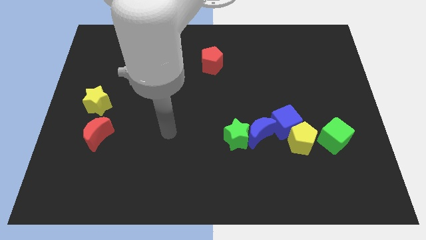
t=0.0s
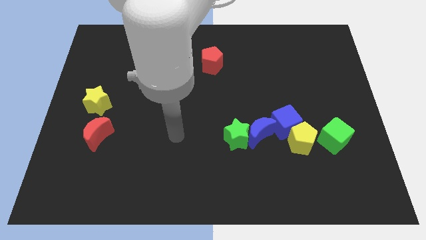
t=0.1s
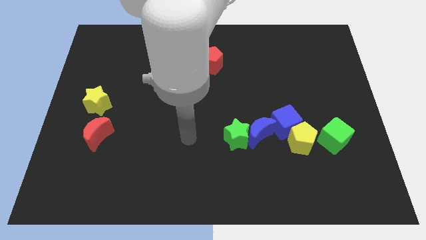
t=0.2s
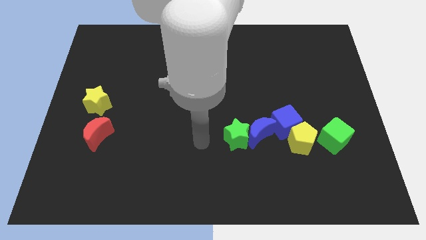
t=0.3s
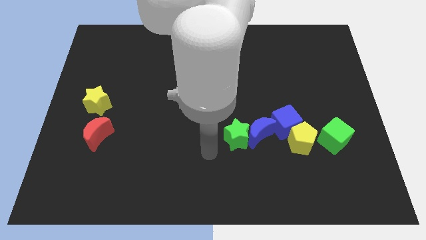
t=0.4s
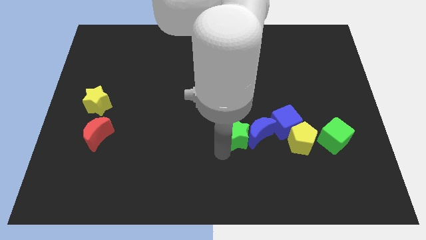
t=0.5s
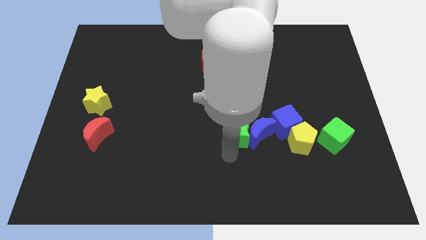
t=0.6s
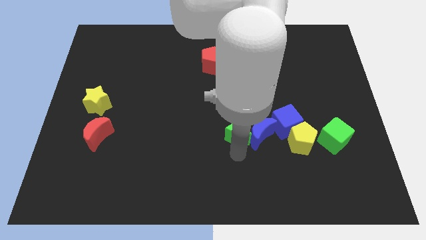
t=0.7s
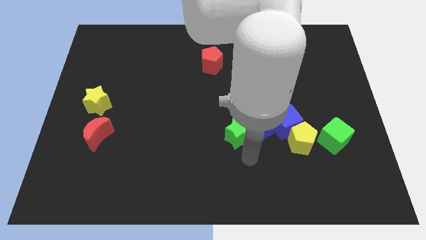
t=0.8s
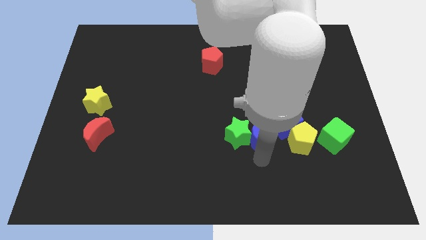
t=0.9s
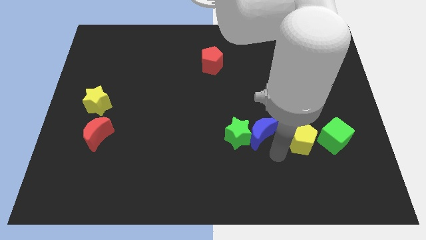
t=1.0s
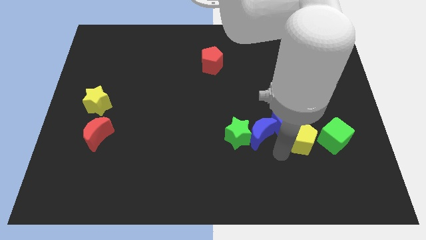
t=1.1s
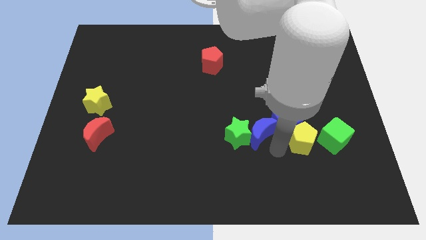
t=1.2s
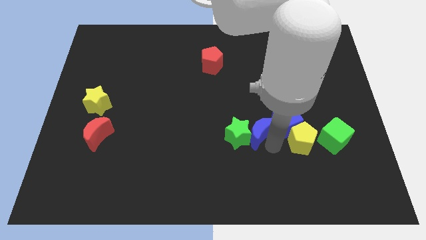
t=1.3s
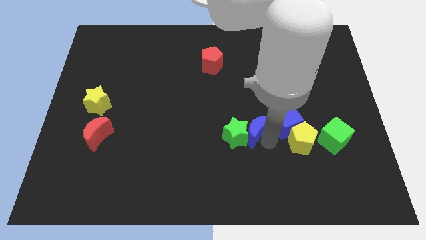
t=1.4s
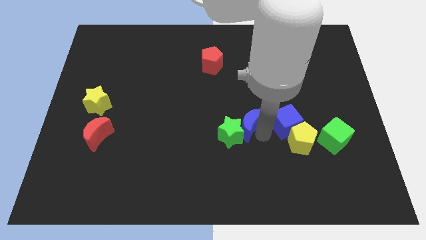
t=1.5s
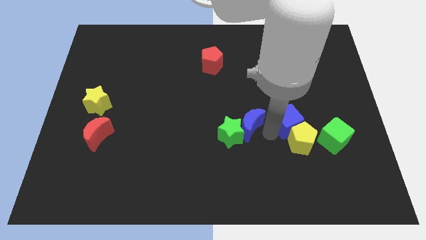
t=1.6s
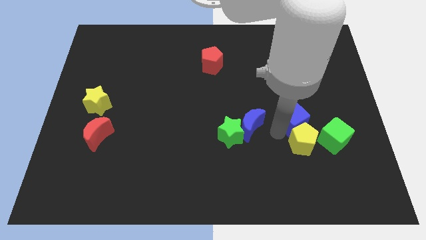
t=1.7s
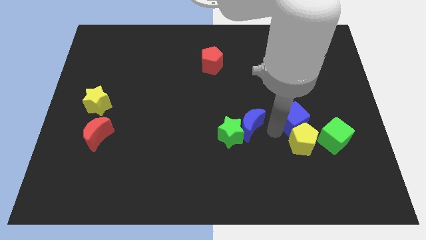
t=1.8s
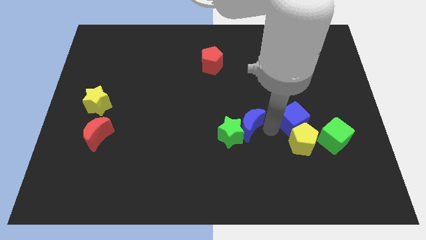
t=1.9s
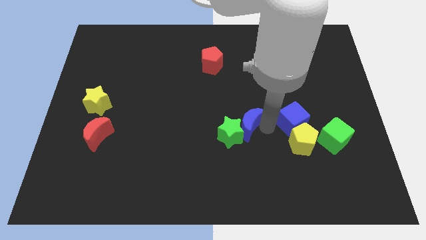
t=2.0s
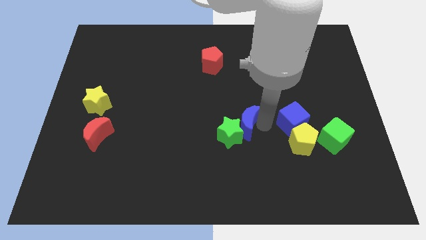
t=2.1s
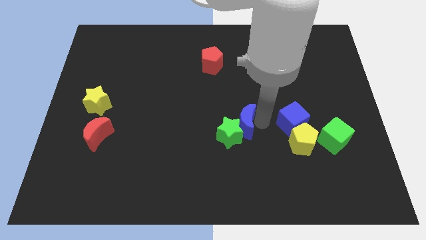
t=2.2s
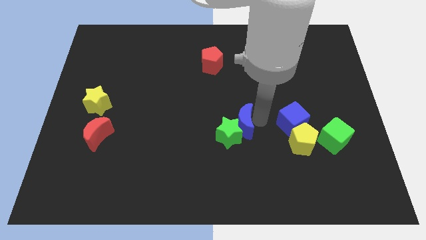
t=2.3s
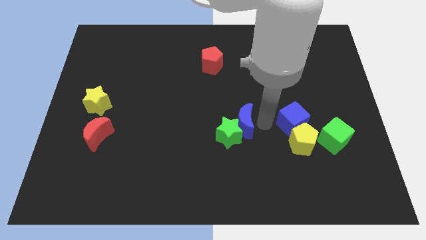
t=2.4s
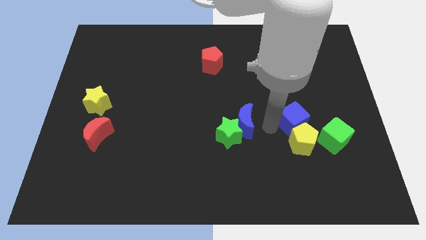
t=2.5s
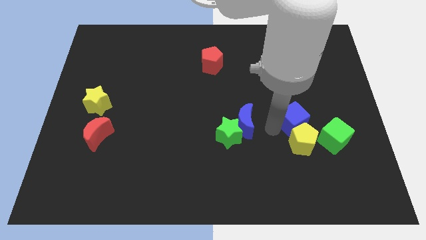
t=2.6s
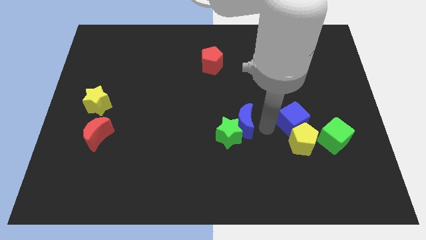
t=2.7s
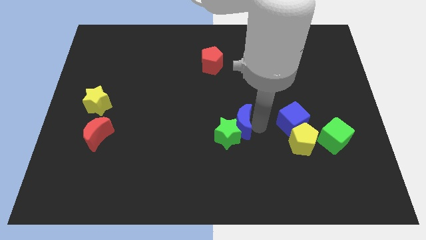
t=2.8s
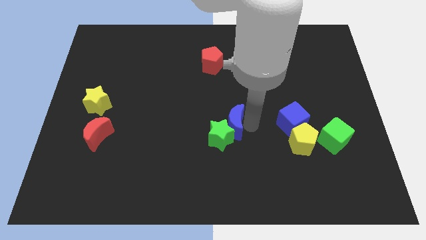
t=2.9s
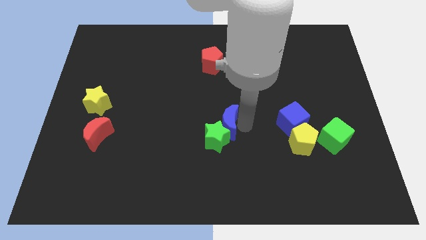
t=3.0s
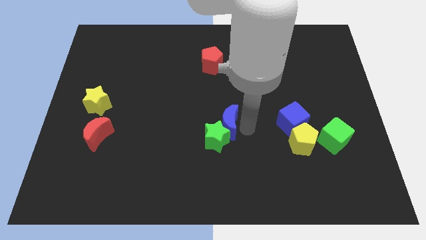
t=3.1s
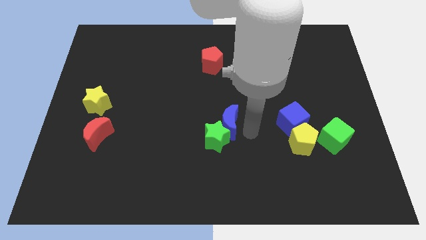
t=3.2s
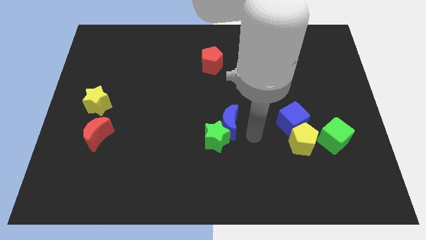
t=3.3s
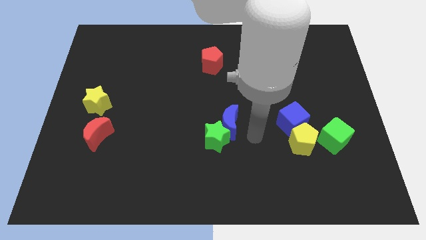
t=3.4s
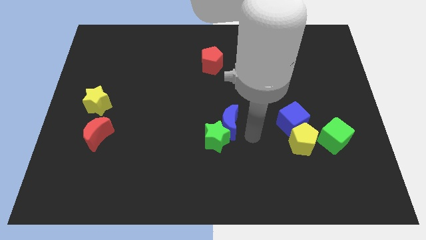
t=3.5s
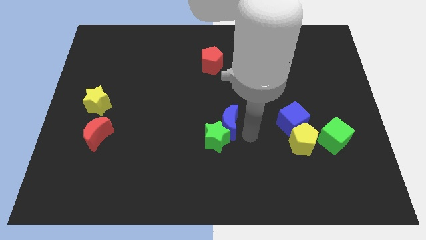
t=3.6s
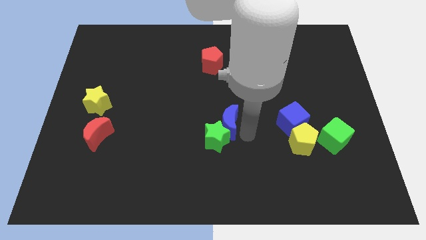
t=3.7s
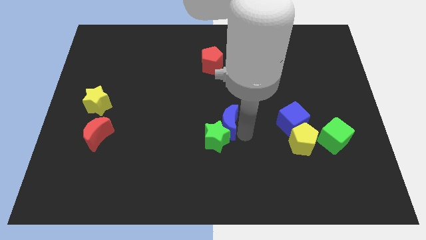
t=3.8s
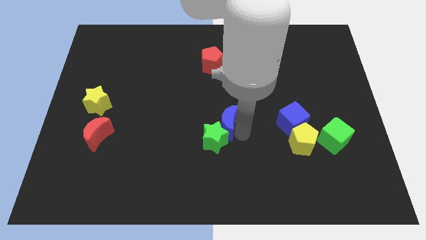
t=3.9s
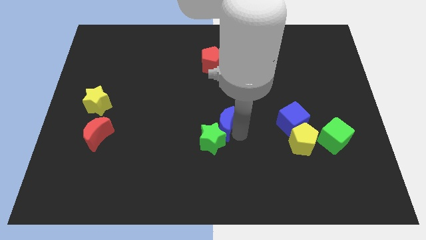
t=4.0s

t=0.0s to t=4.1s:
move the blue moon a little left

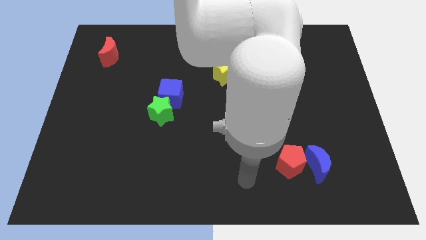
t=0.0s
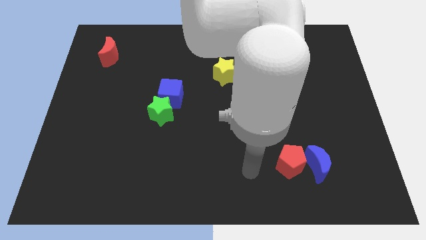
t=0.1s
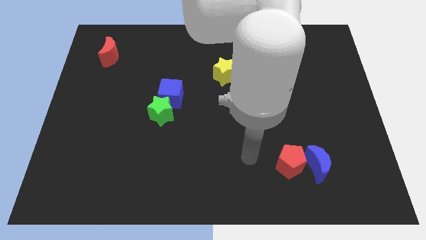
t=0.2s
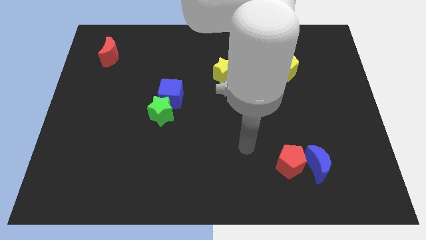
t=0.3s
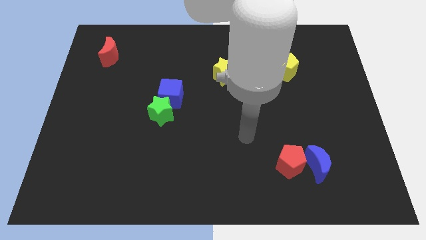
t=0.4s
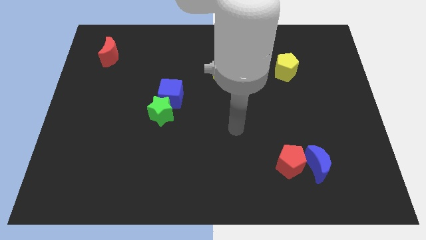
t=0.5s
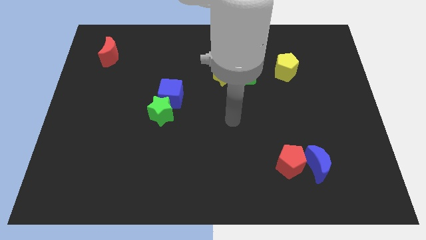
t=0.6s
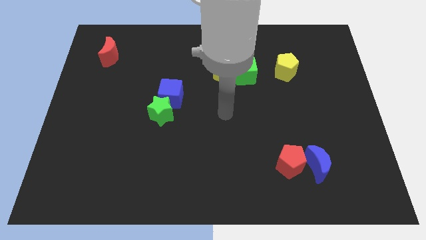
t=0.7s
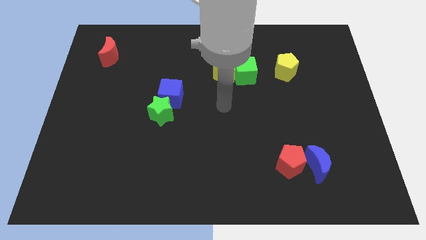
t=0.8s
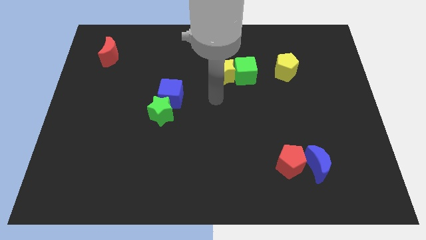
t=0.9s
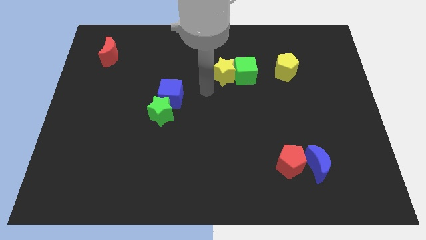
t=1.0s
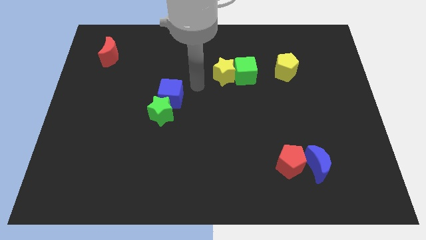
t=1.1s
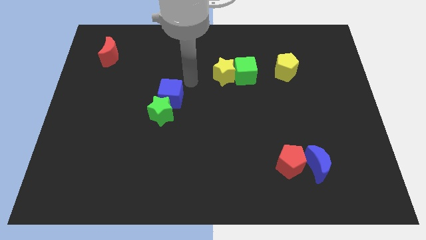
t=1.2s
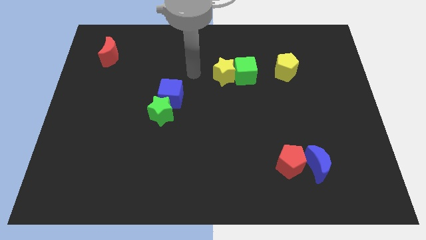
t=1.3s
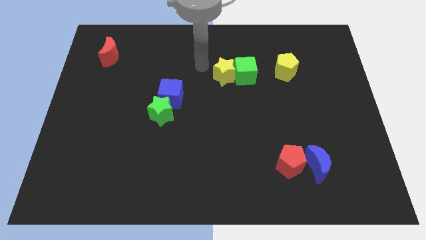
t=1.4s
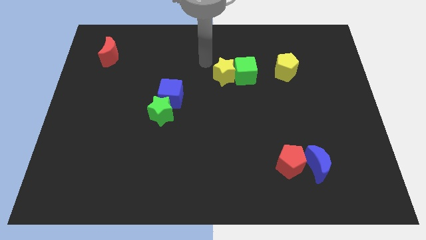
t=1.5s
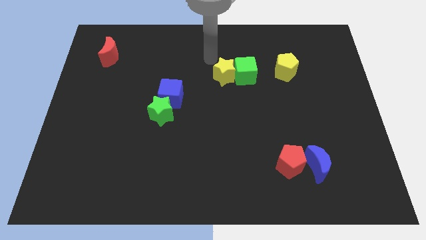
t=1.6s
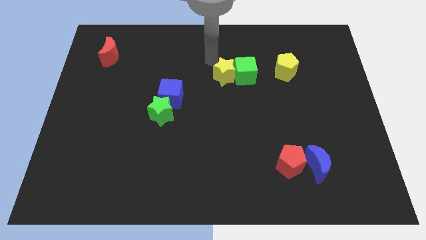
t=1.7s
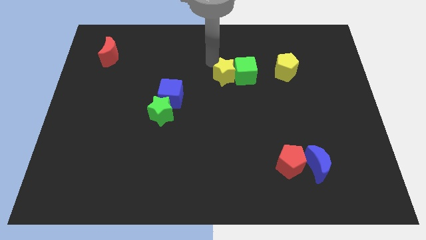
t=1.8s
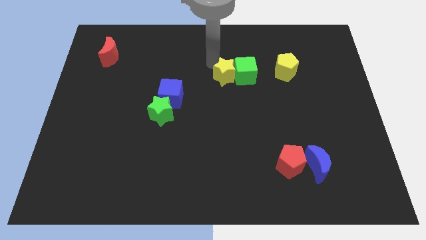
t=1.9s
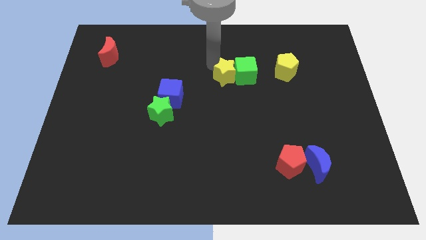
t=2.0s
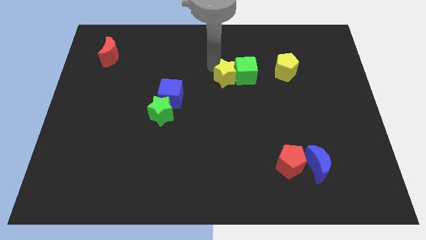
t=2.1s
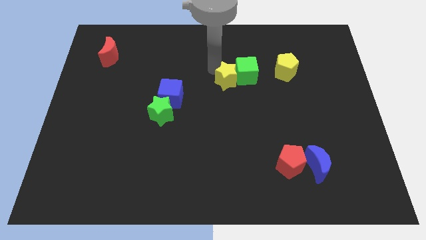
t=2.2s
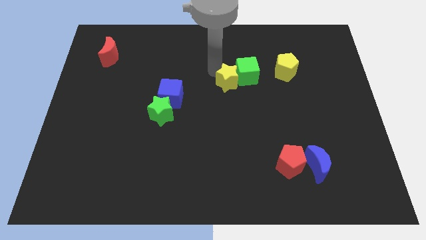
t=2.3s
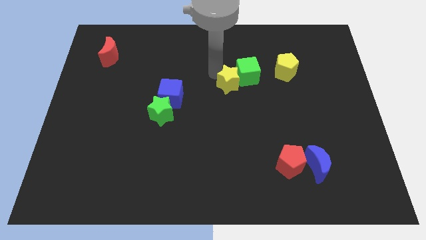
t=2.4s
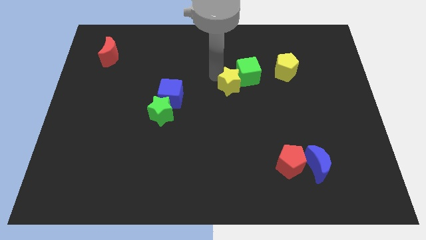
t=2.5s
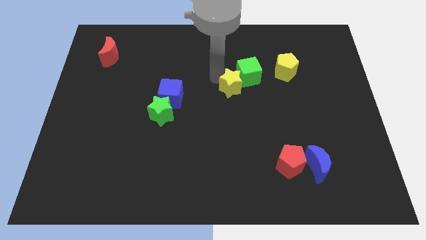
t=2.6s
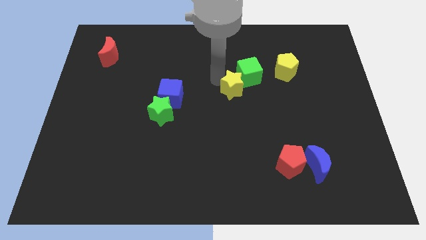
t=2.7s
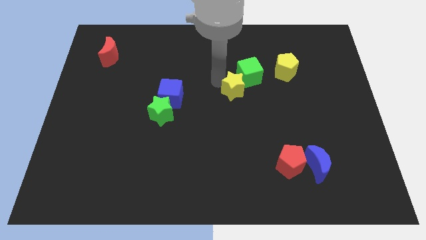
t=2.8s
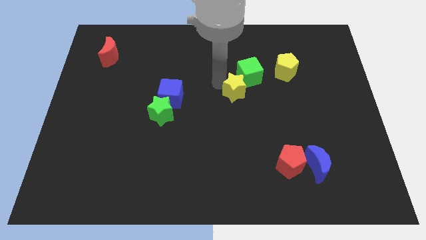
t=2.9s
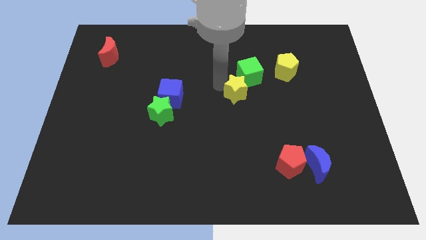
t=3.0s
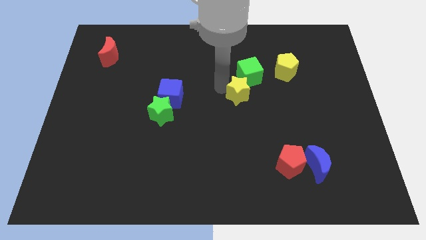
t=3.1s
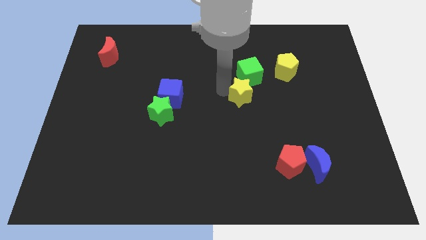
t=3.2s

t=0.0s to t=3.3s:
push the yellow star down and to the right diagonally a bit

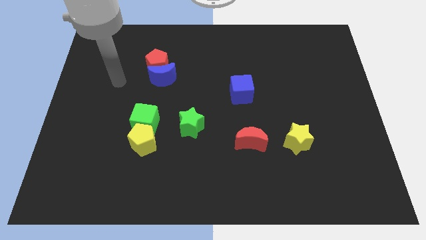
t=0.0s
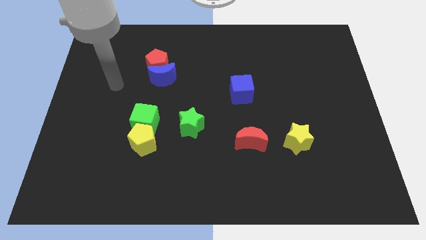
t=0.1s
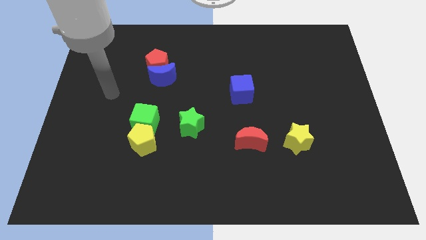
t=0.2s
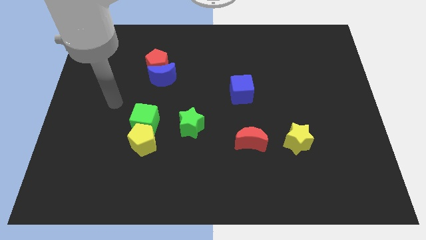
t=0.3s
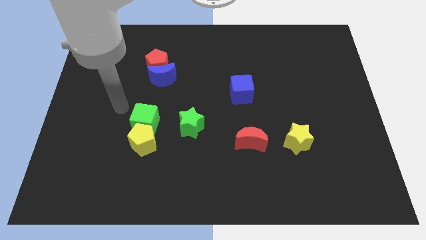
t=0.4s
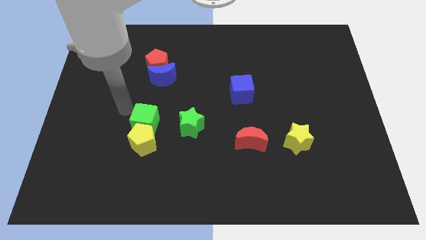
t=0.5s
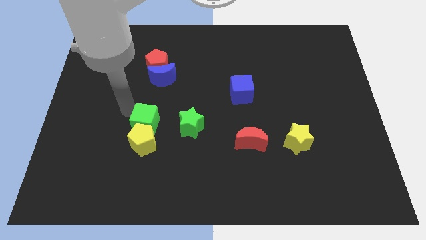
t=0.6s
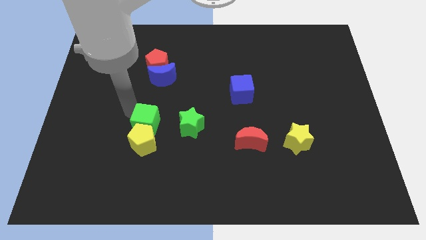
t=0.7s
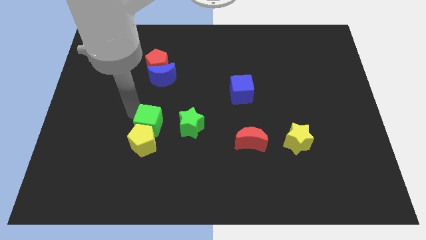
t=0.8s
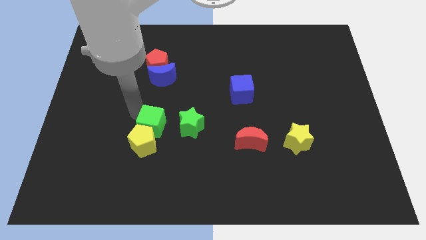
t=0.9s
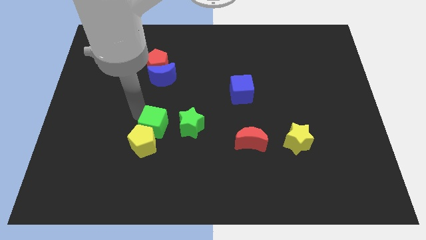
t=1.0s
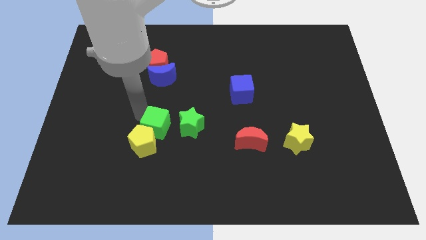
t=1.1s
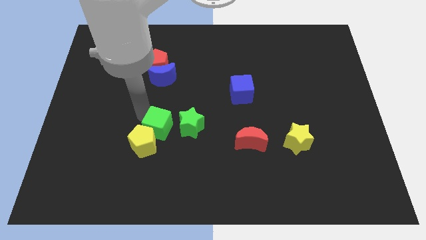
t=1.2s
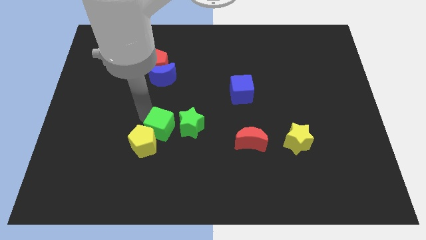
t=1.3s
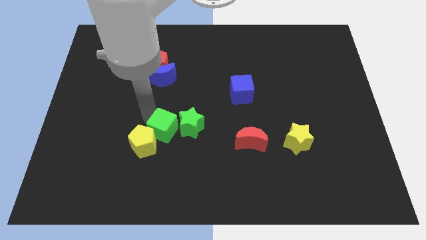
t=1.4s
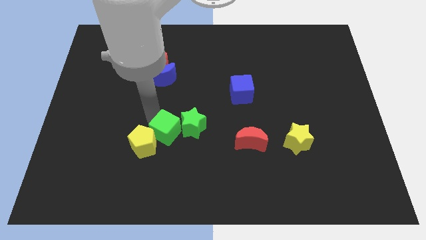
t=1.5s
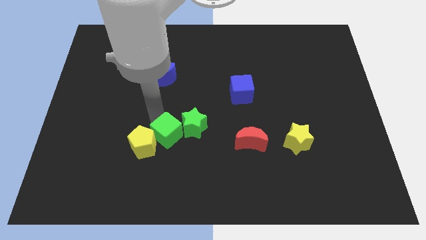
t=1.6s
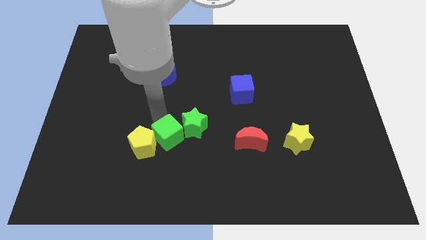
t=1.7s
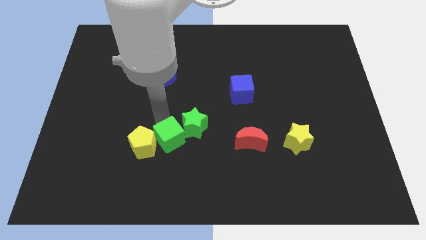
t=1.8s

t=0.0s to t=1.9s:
slide the green cube diagonally downwards and to the right a little
